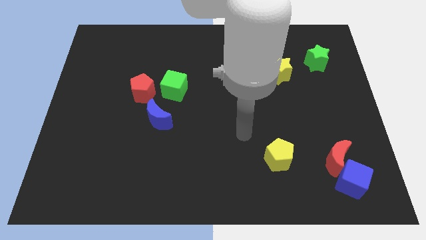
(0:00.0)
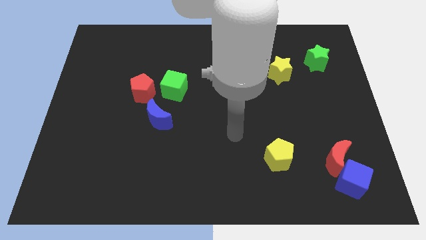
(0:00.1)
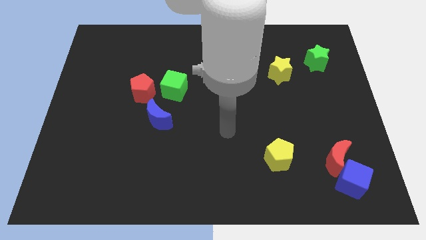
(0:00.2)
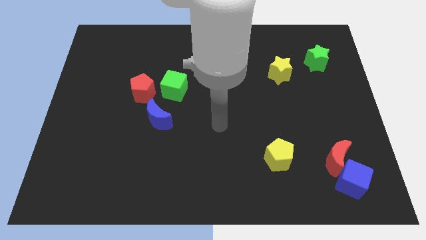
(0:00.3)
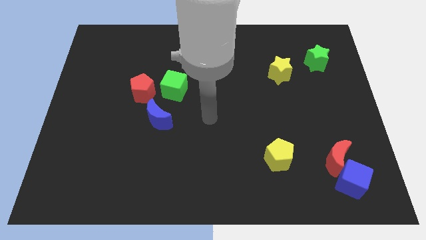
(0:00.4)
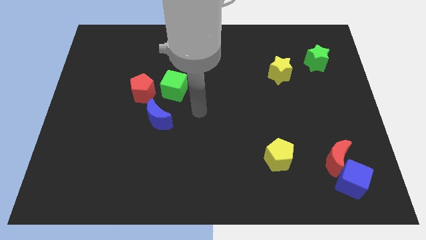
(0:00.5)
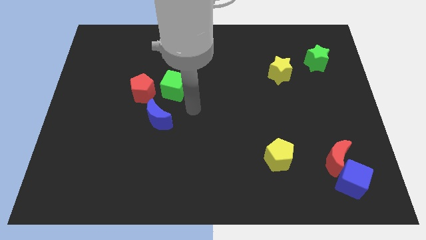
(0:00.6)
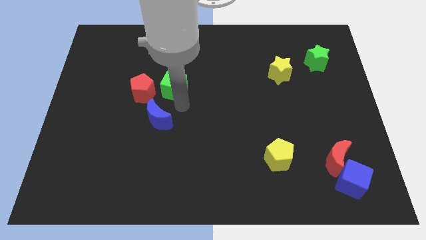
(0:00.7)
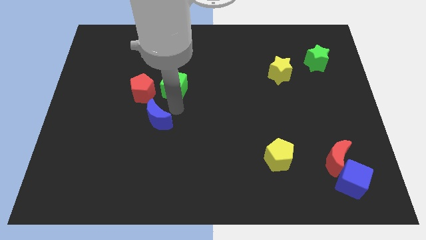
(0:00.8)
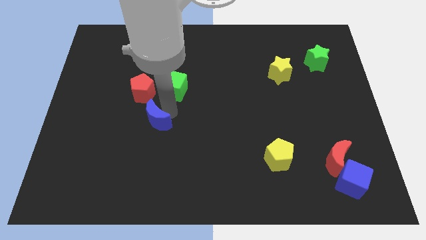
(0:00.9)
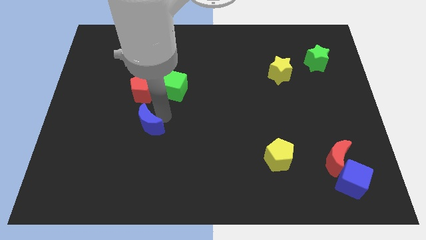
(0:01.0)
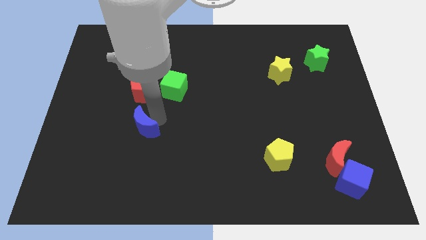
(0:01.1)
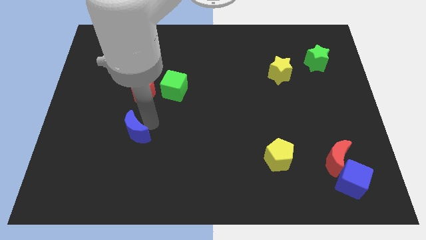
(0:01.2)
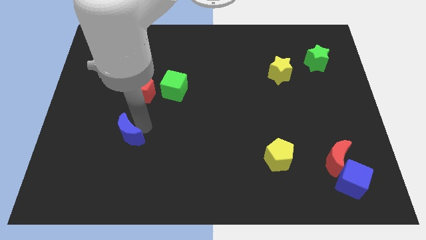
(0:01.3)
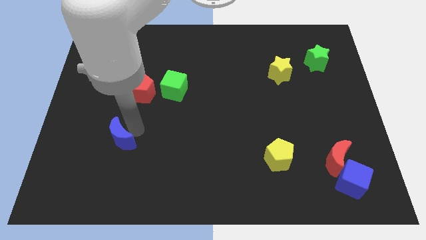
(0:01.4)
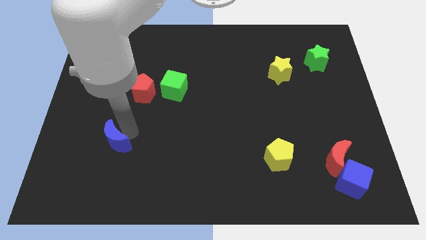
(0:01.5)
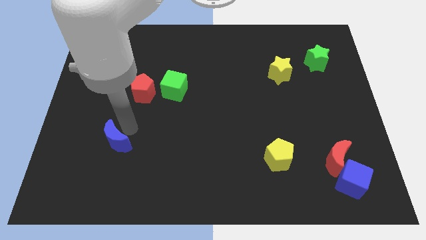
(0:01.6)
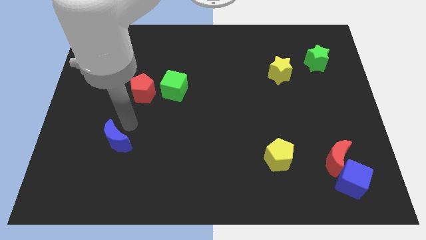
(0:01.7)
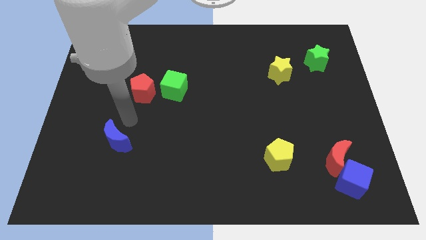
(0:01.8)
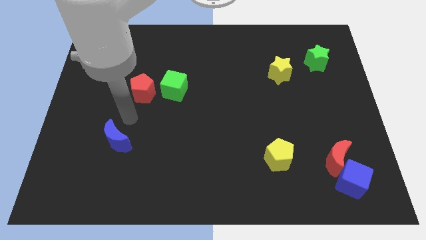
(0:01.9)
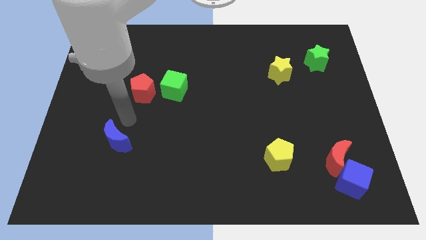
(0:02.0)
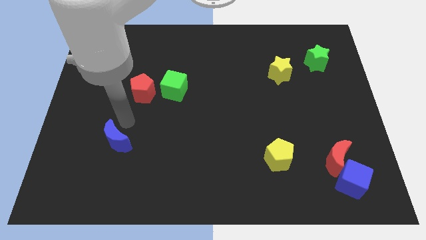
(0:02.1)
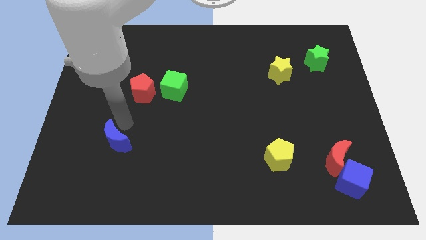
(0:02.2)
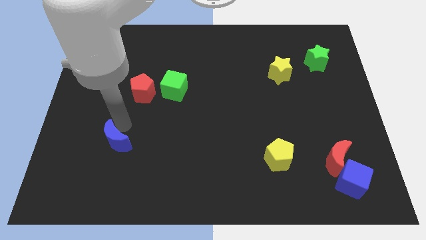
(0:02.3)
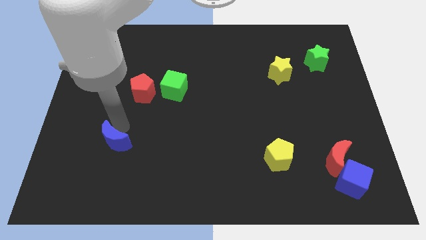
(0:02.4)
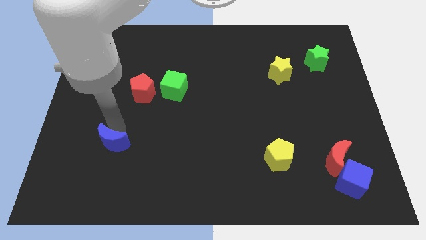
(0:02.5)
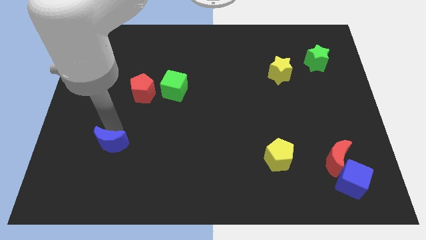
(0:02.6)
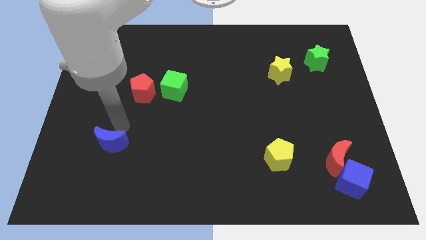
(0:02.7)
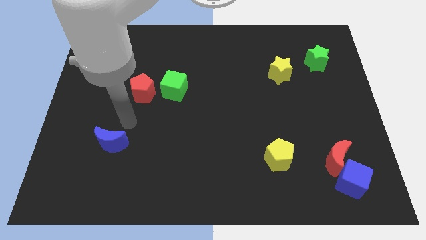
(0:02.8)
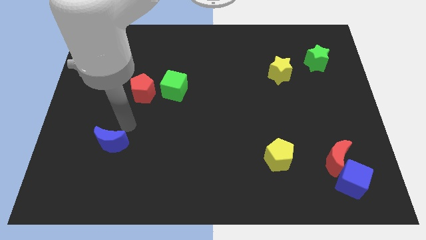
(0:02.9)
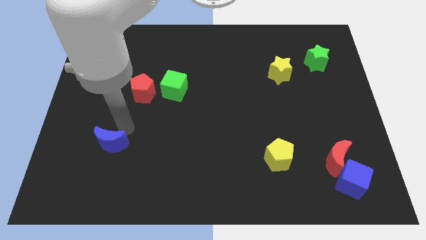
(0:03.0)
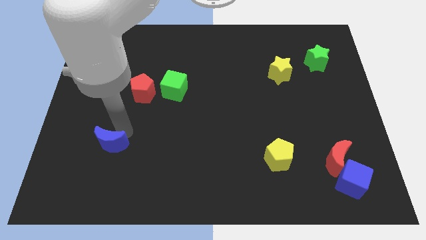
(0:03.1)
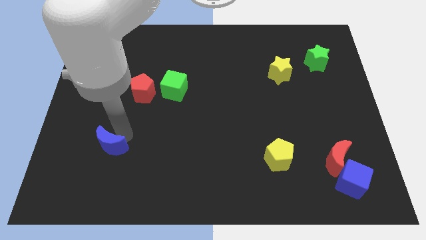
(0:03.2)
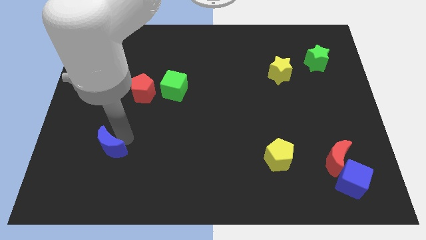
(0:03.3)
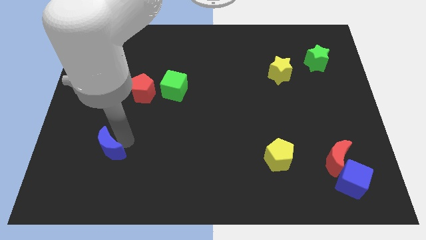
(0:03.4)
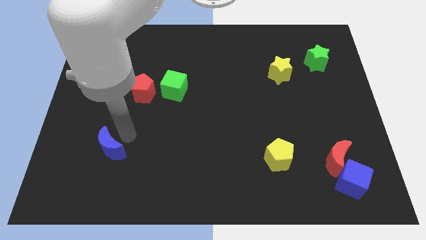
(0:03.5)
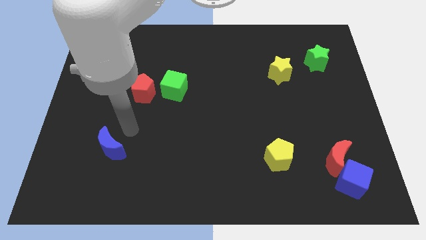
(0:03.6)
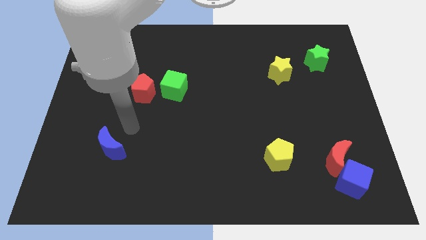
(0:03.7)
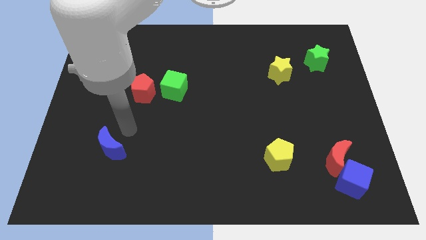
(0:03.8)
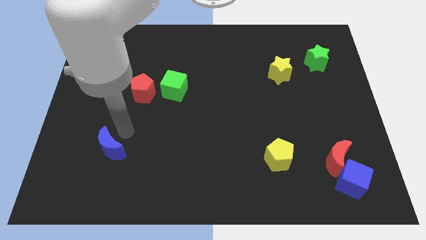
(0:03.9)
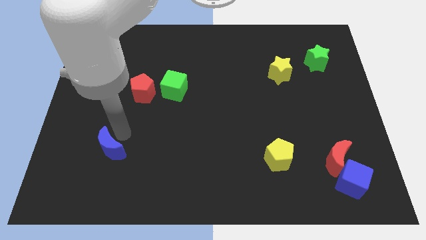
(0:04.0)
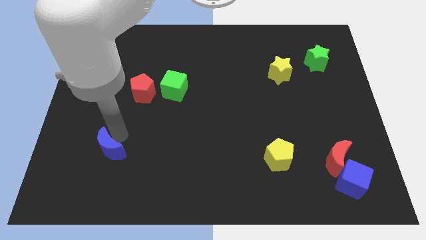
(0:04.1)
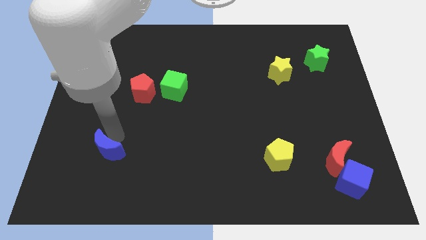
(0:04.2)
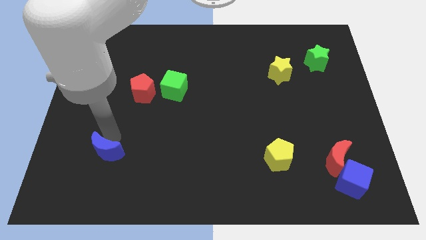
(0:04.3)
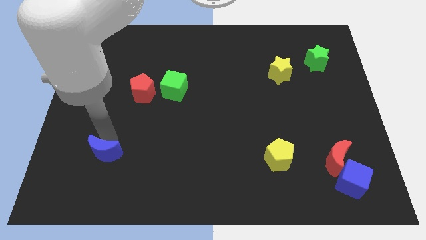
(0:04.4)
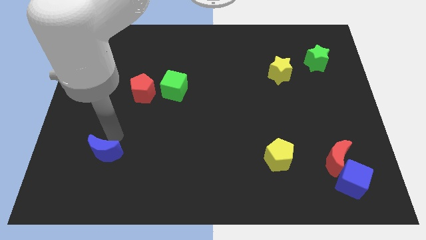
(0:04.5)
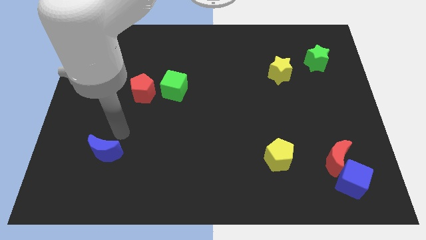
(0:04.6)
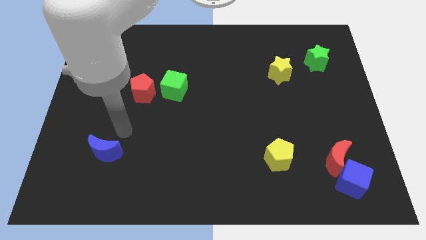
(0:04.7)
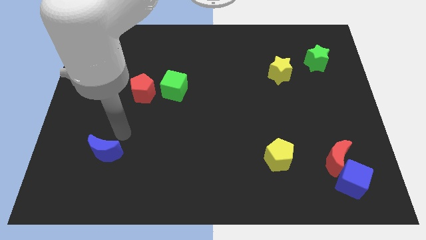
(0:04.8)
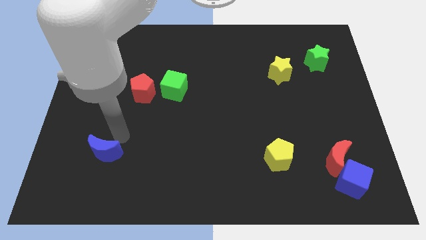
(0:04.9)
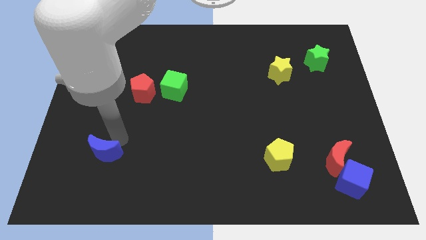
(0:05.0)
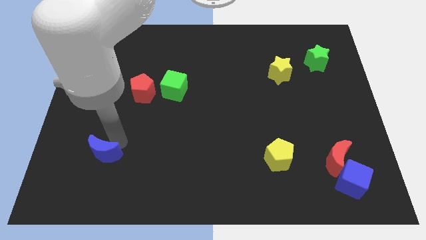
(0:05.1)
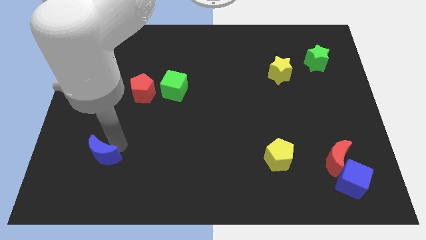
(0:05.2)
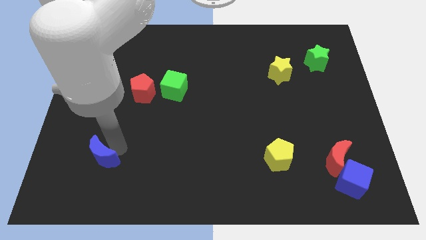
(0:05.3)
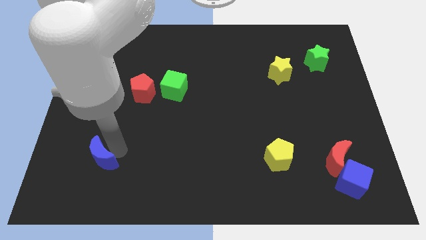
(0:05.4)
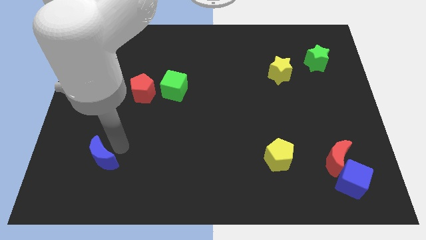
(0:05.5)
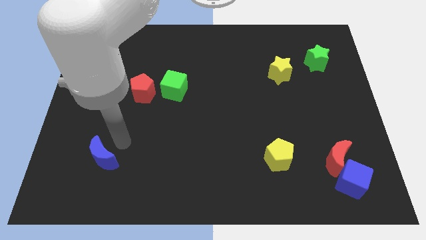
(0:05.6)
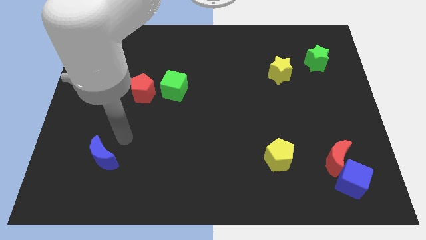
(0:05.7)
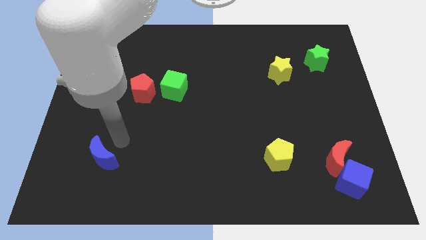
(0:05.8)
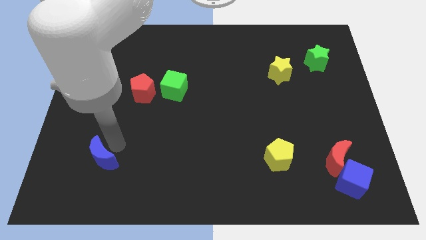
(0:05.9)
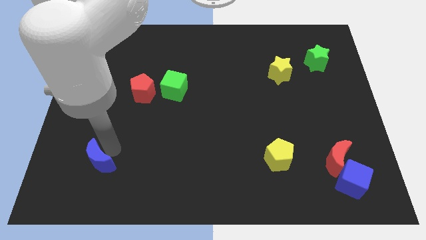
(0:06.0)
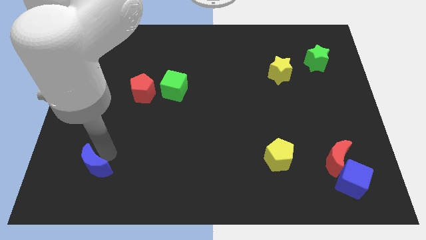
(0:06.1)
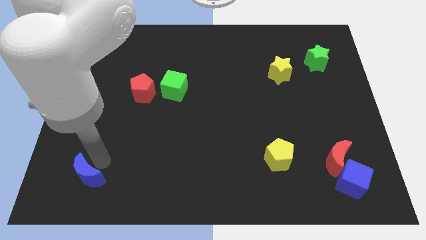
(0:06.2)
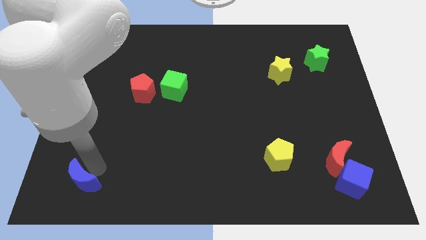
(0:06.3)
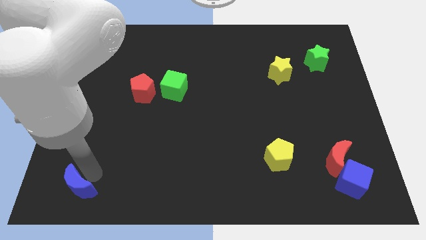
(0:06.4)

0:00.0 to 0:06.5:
put the blue moon to the lower left corner

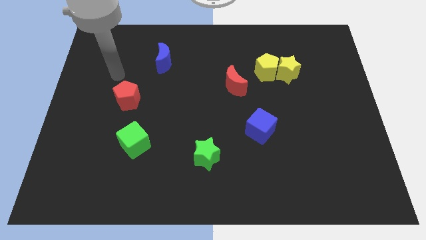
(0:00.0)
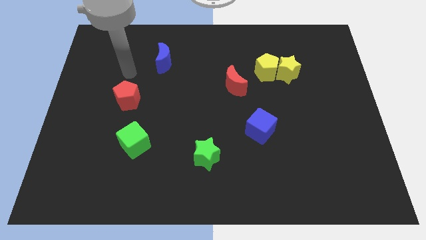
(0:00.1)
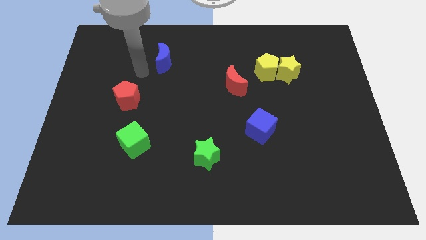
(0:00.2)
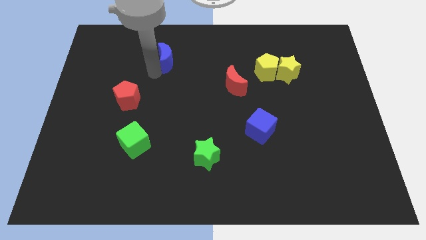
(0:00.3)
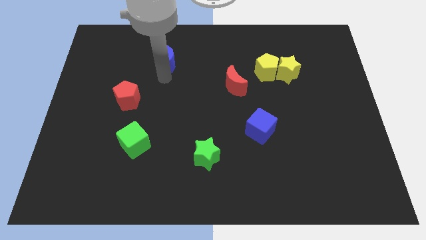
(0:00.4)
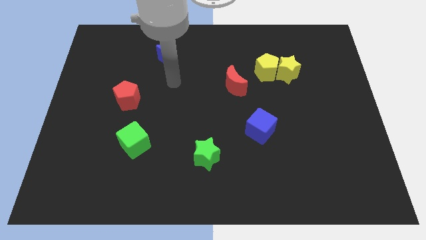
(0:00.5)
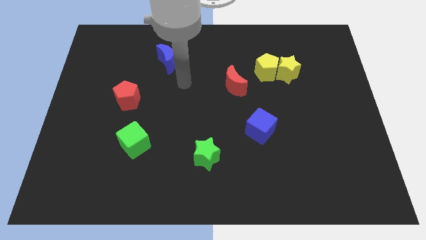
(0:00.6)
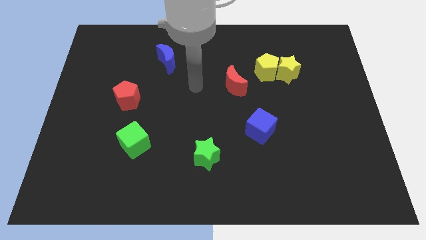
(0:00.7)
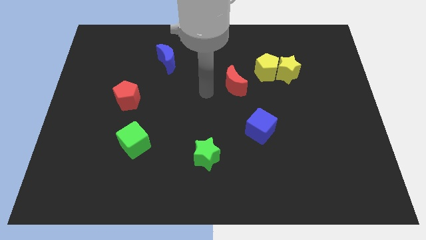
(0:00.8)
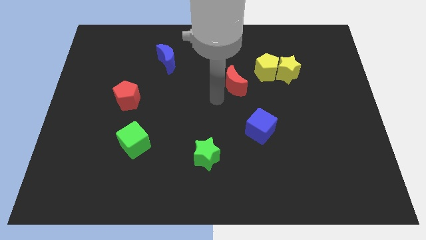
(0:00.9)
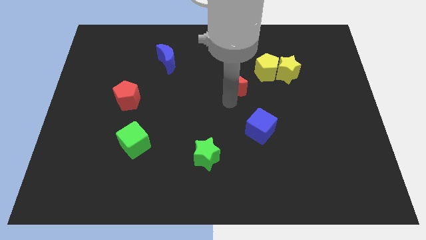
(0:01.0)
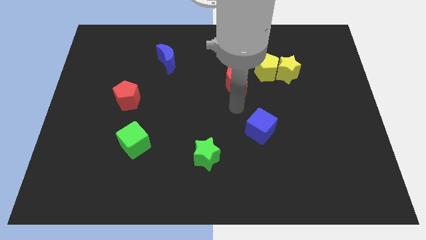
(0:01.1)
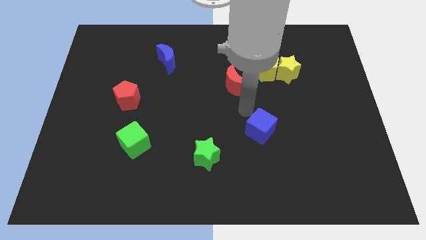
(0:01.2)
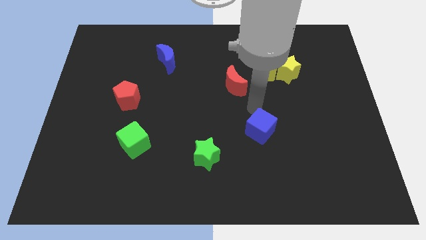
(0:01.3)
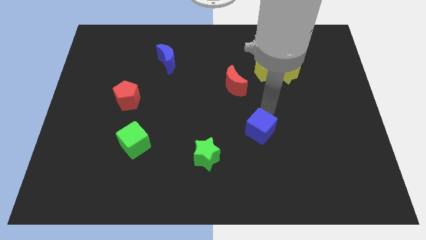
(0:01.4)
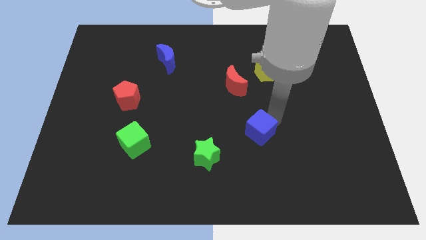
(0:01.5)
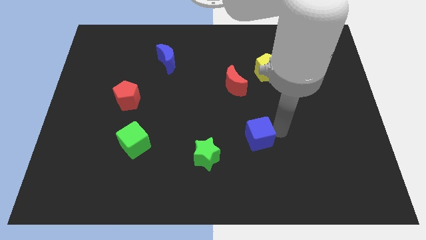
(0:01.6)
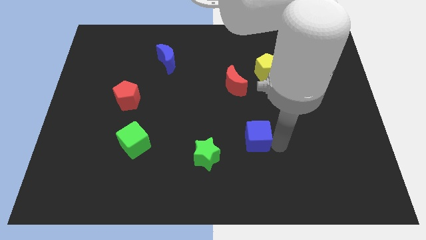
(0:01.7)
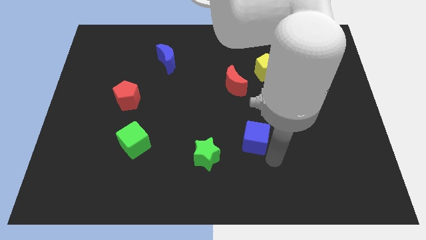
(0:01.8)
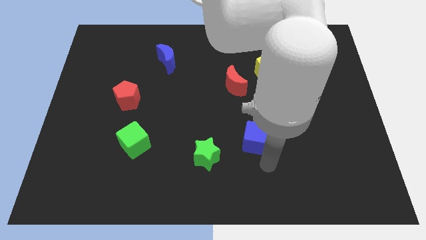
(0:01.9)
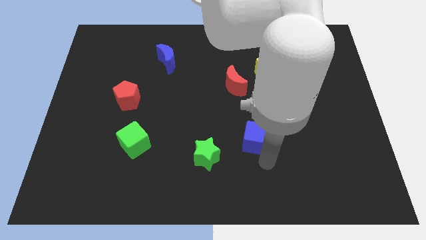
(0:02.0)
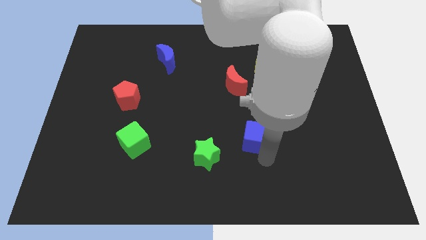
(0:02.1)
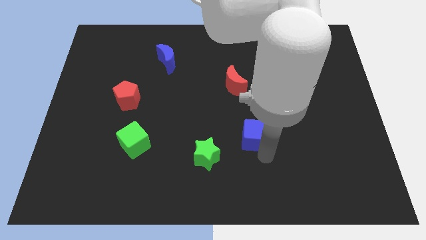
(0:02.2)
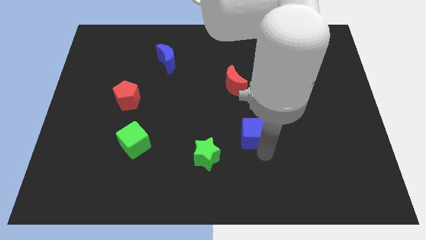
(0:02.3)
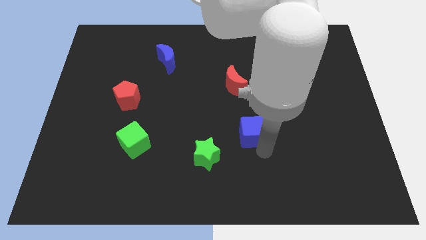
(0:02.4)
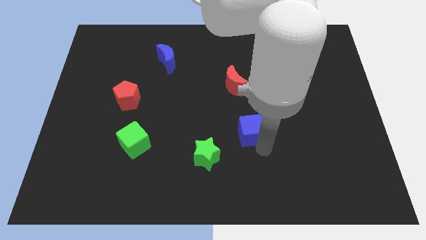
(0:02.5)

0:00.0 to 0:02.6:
slide the blue cube to the center of the board
